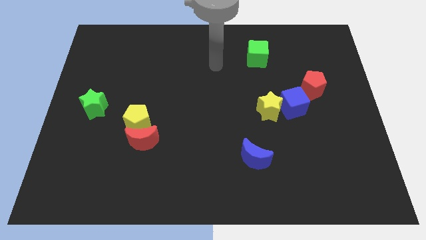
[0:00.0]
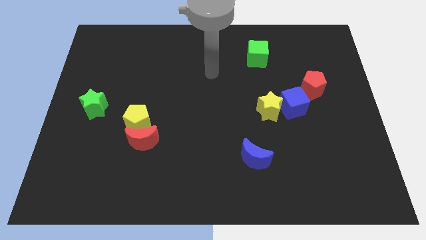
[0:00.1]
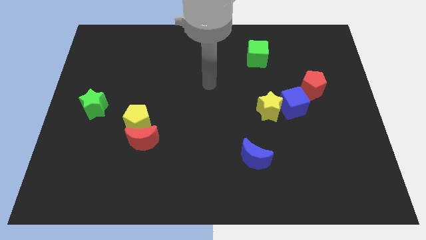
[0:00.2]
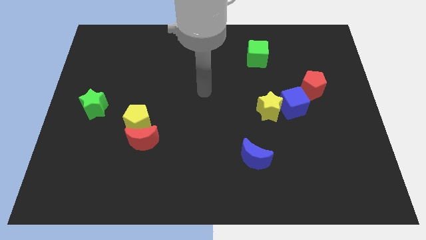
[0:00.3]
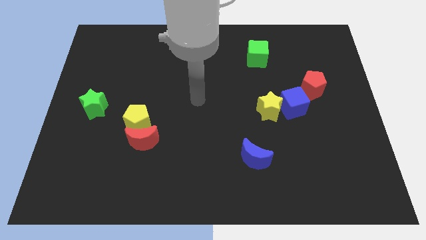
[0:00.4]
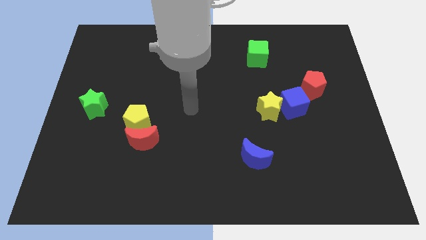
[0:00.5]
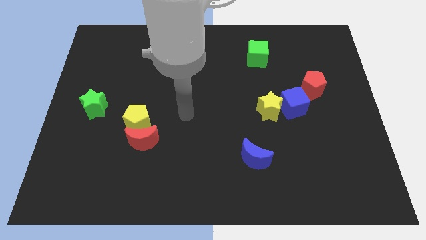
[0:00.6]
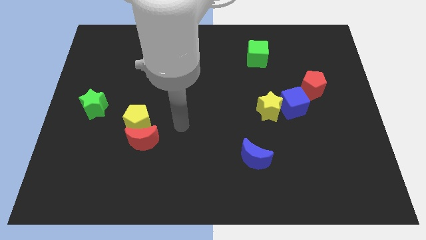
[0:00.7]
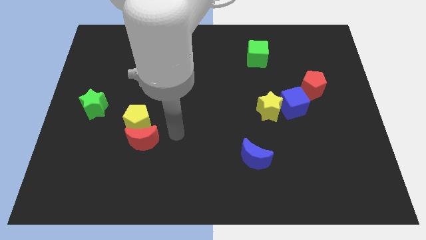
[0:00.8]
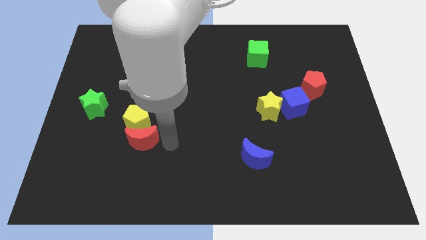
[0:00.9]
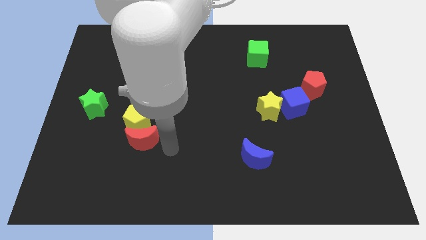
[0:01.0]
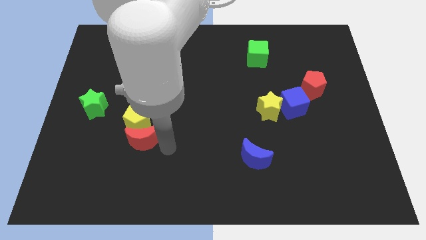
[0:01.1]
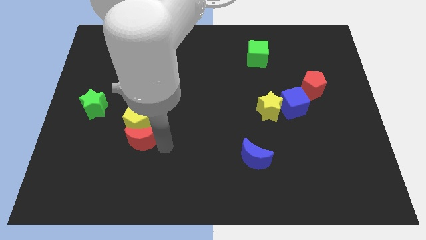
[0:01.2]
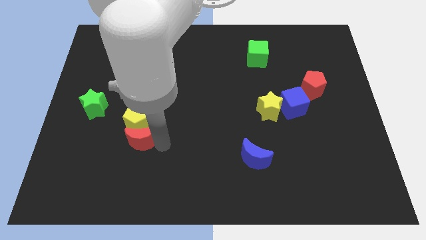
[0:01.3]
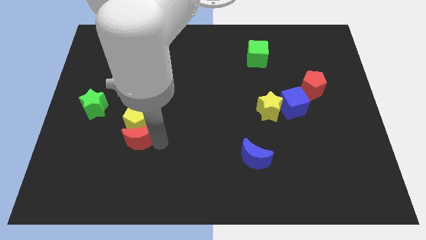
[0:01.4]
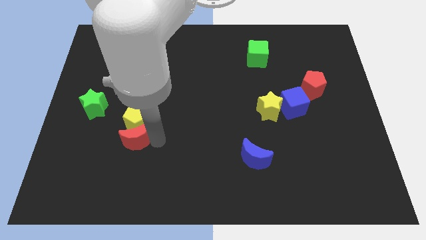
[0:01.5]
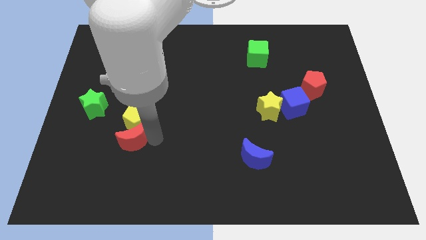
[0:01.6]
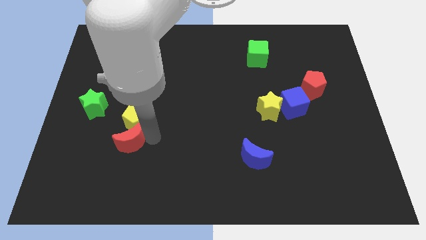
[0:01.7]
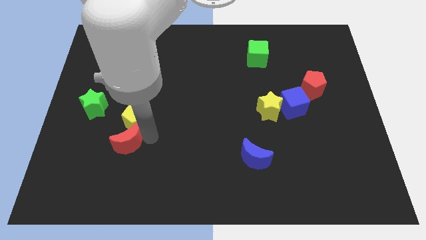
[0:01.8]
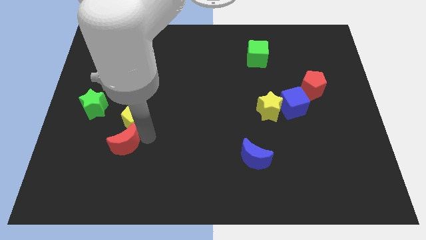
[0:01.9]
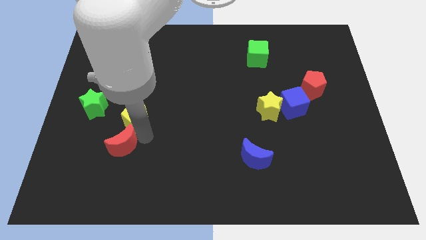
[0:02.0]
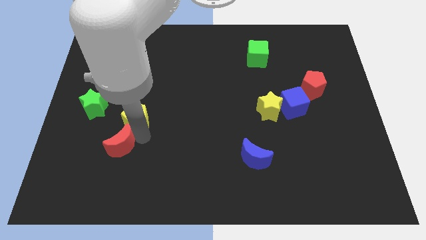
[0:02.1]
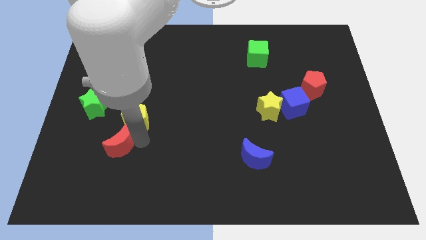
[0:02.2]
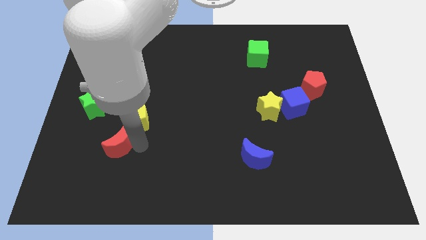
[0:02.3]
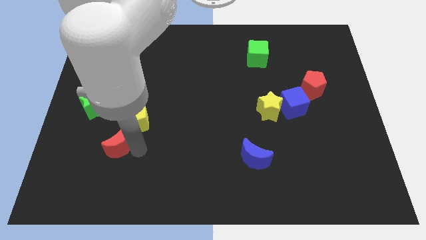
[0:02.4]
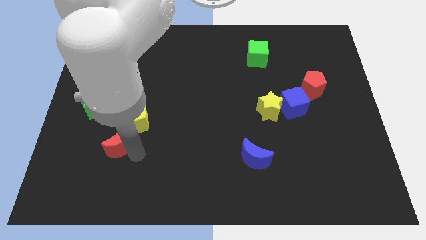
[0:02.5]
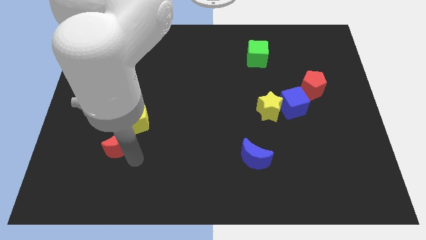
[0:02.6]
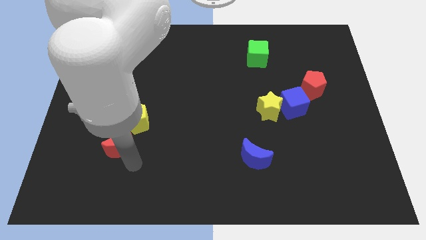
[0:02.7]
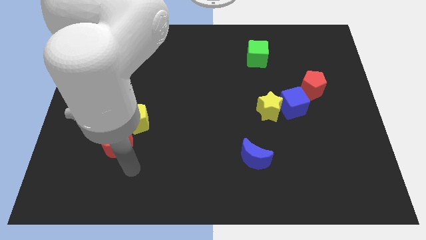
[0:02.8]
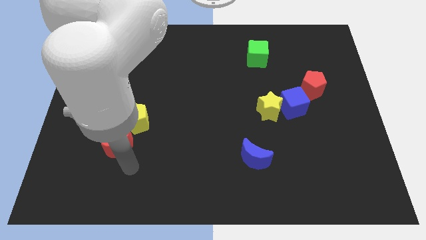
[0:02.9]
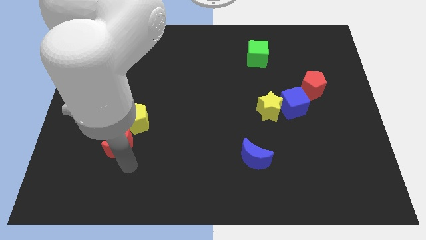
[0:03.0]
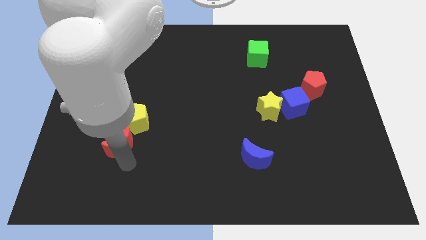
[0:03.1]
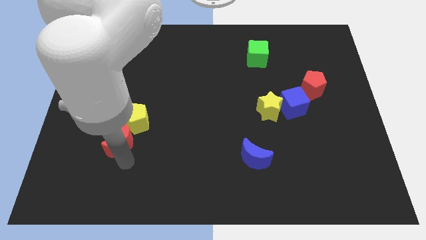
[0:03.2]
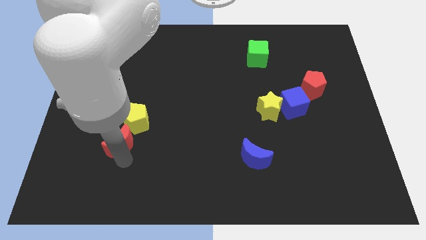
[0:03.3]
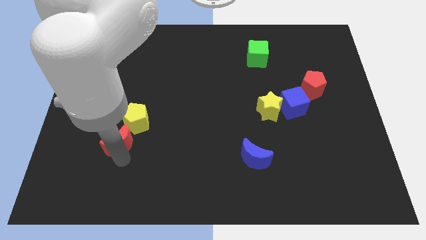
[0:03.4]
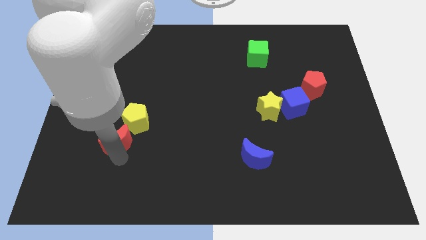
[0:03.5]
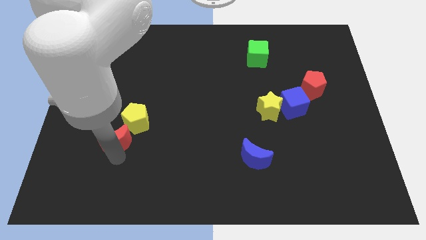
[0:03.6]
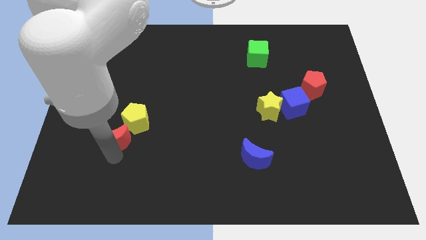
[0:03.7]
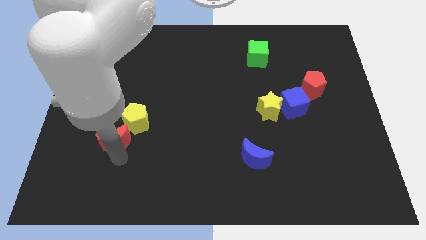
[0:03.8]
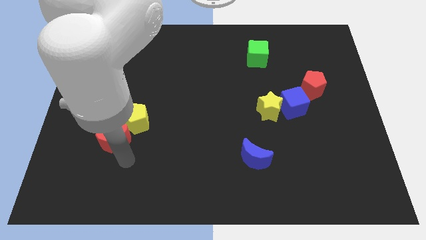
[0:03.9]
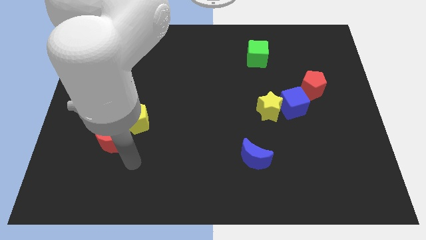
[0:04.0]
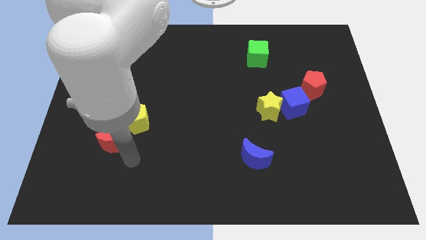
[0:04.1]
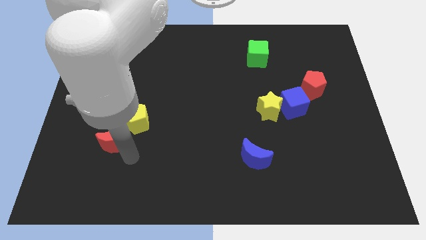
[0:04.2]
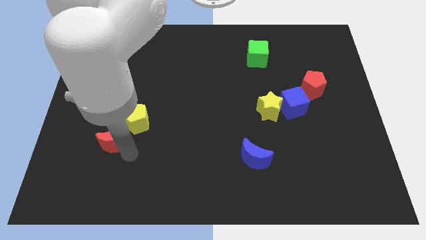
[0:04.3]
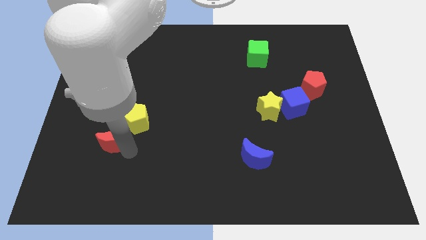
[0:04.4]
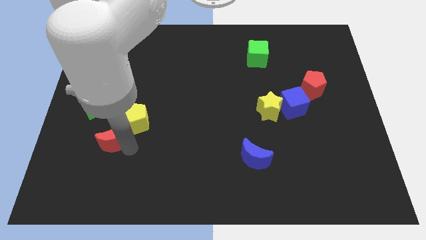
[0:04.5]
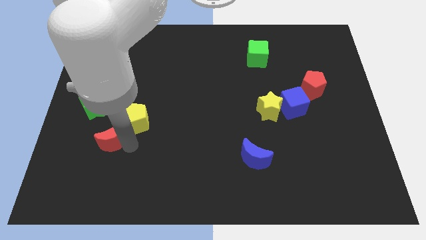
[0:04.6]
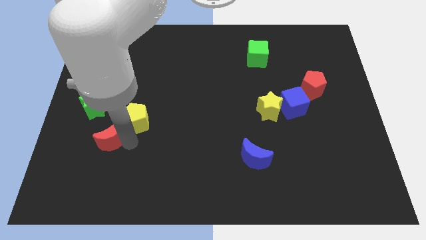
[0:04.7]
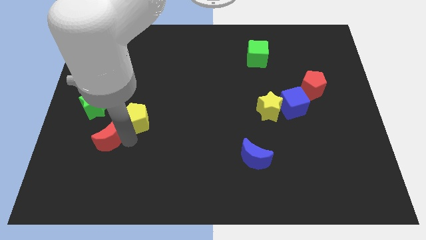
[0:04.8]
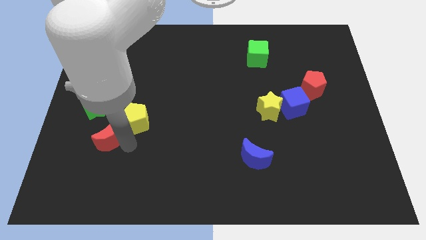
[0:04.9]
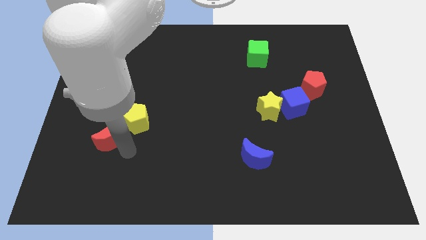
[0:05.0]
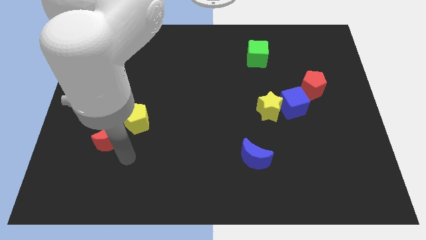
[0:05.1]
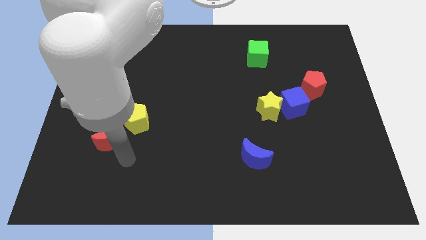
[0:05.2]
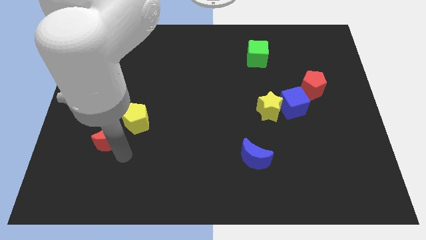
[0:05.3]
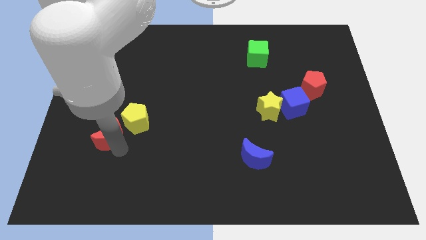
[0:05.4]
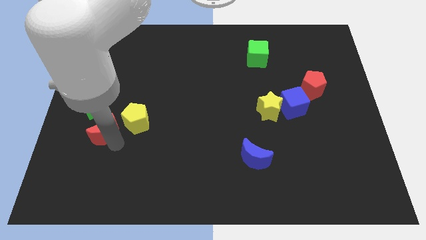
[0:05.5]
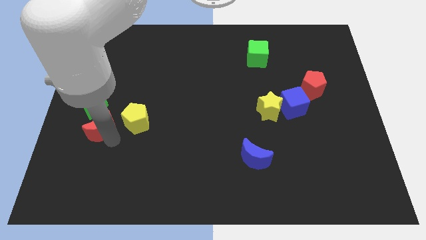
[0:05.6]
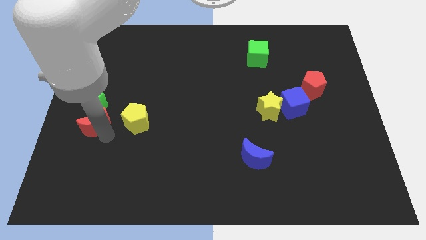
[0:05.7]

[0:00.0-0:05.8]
push the red moon towards the green star

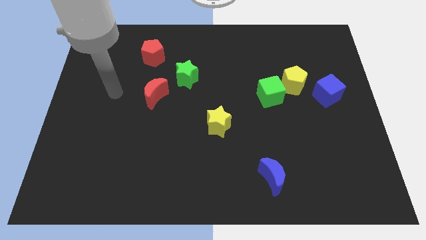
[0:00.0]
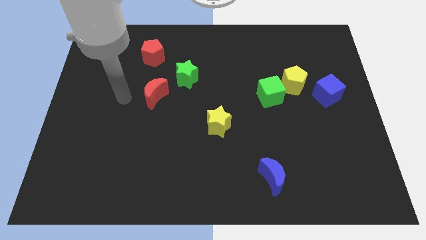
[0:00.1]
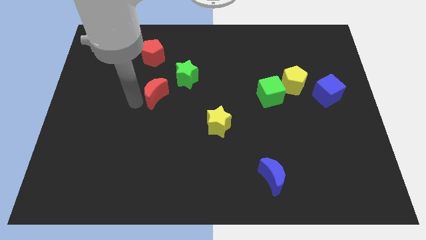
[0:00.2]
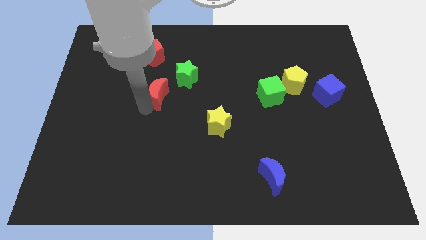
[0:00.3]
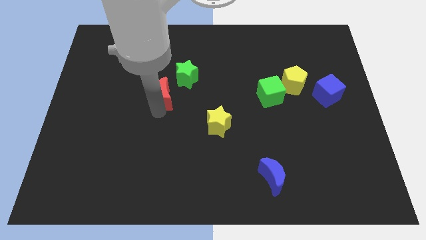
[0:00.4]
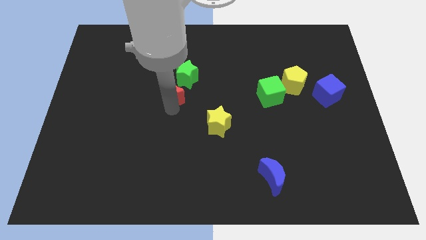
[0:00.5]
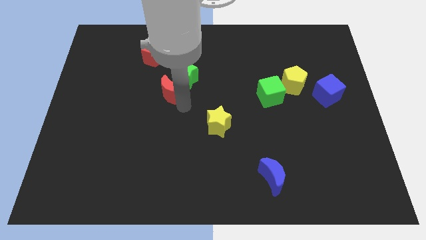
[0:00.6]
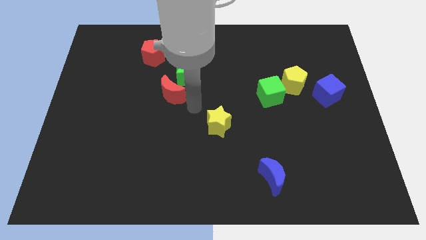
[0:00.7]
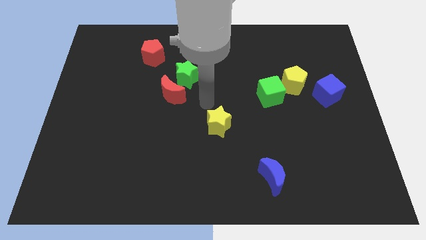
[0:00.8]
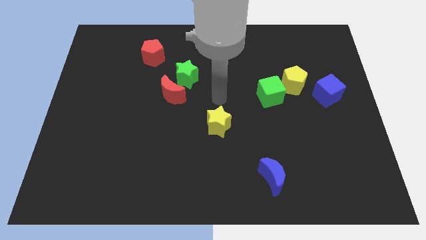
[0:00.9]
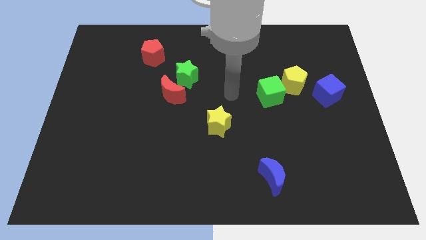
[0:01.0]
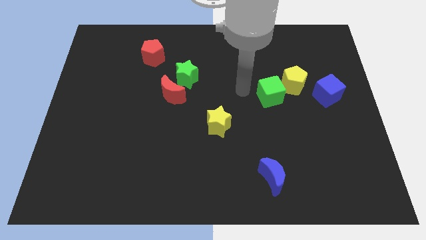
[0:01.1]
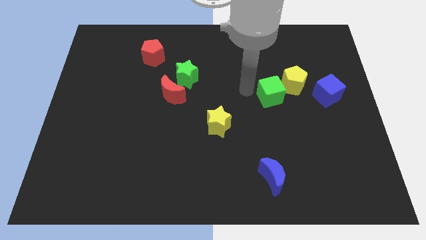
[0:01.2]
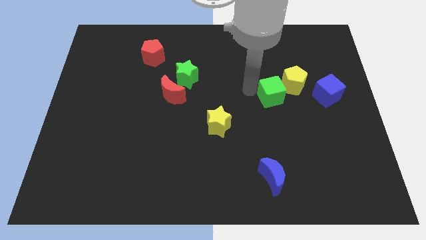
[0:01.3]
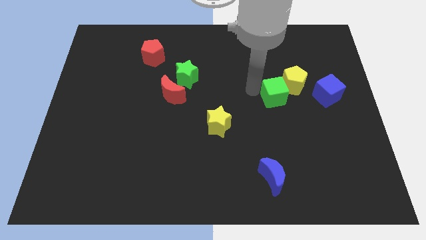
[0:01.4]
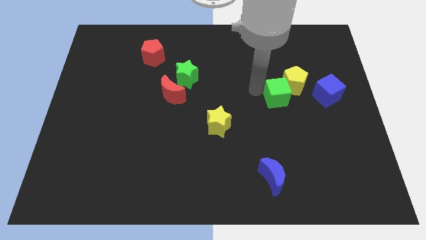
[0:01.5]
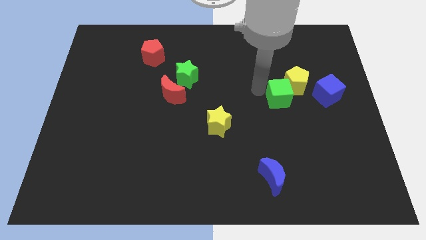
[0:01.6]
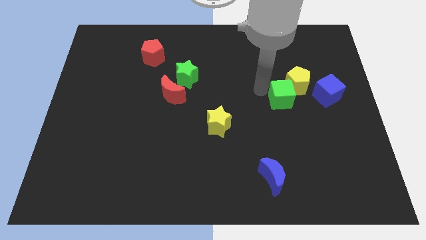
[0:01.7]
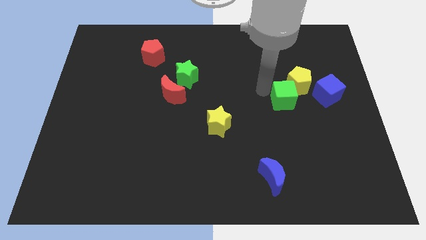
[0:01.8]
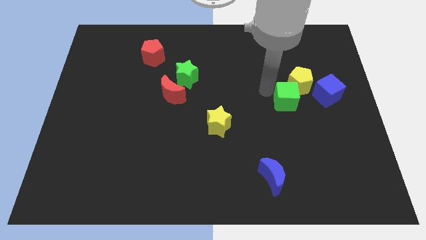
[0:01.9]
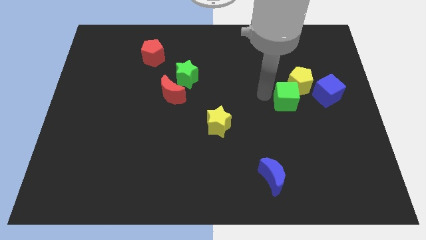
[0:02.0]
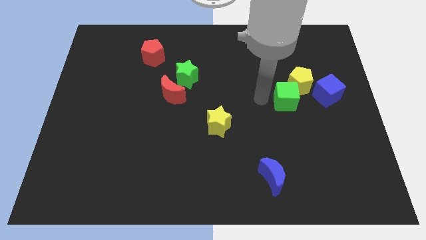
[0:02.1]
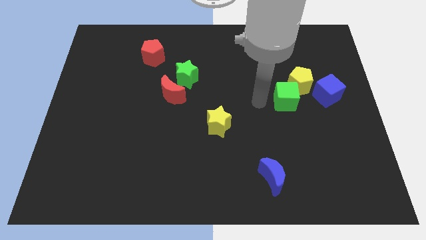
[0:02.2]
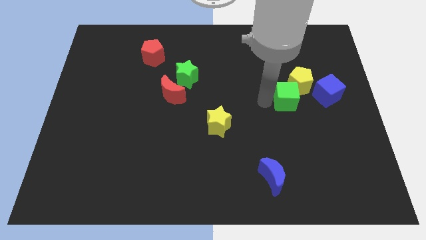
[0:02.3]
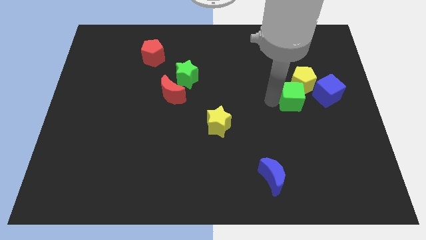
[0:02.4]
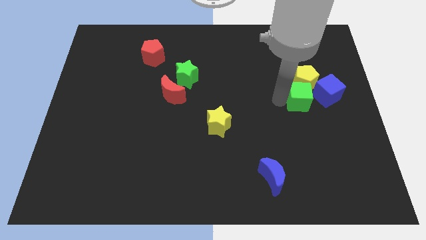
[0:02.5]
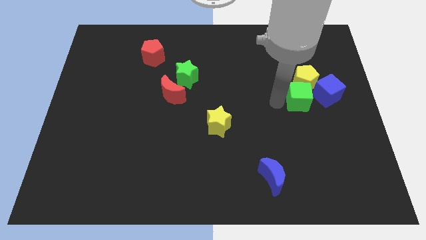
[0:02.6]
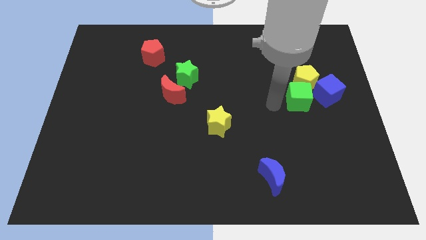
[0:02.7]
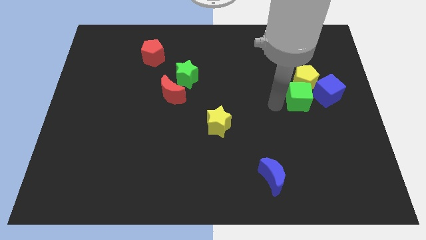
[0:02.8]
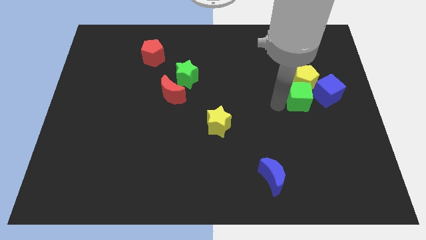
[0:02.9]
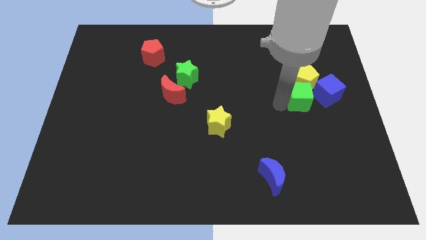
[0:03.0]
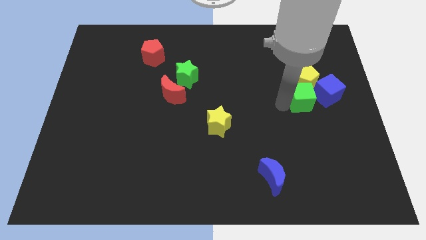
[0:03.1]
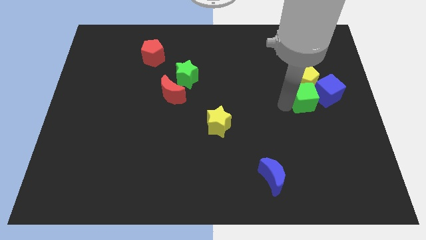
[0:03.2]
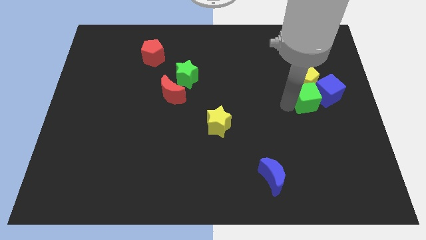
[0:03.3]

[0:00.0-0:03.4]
slide the green cube next to the blue cube
